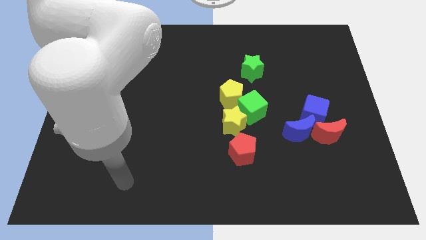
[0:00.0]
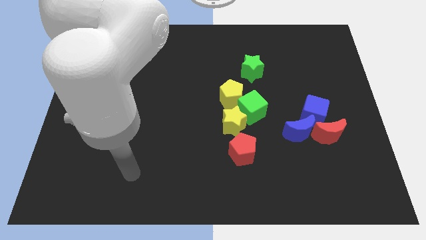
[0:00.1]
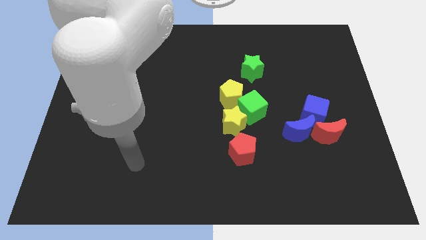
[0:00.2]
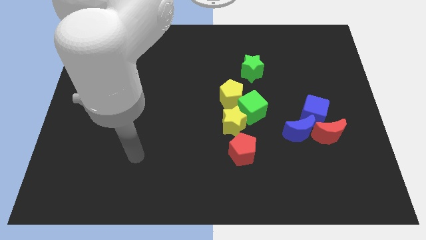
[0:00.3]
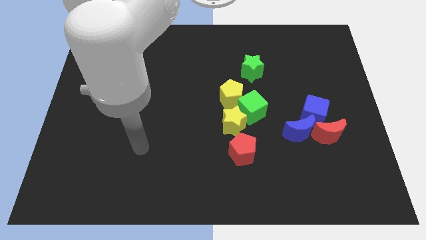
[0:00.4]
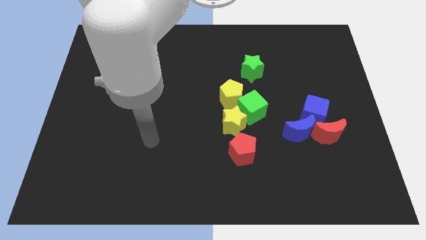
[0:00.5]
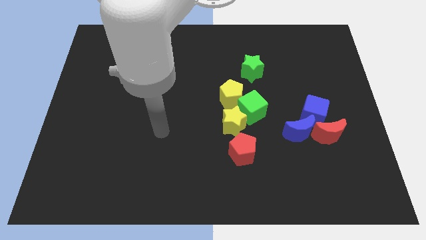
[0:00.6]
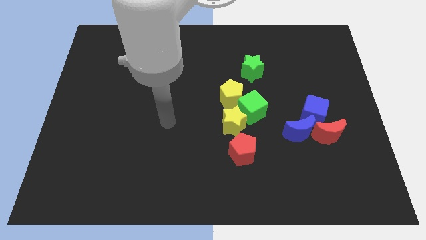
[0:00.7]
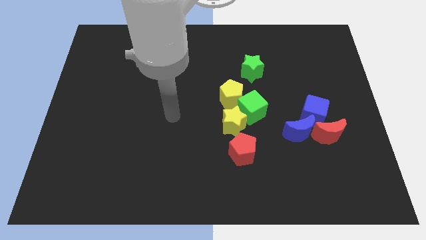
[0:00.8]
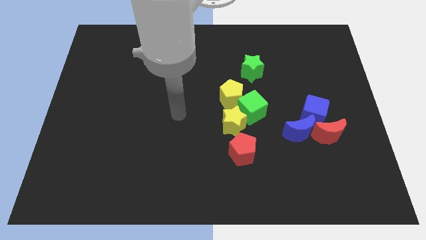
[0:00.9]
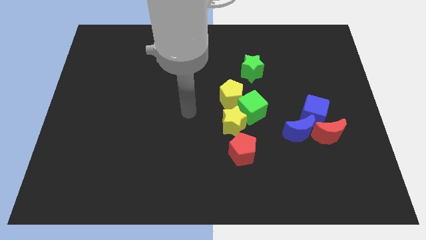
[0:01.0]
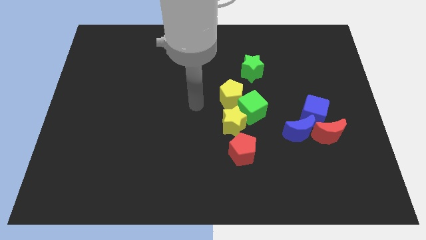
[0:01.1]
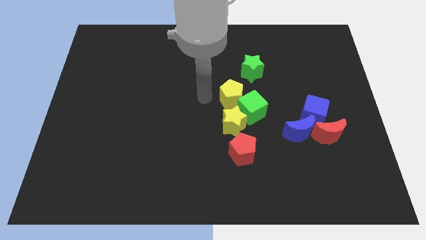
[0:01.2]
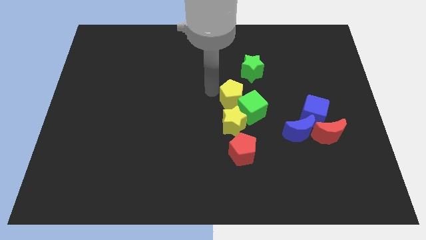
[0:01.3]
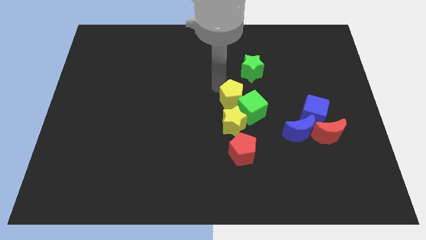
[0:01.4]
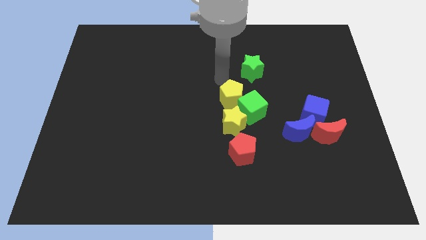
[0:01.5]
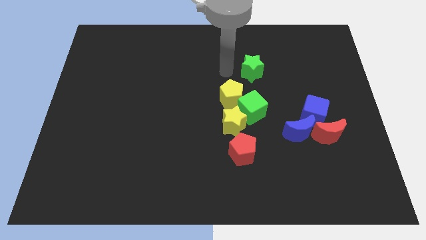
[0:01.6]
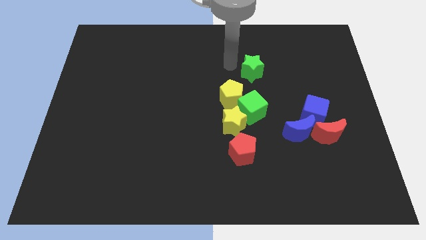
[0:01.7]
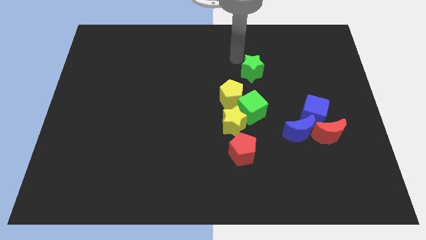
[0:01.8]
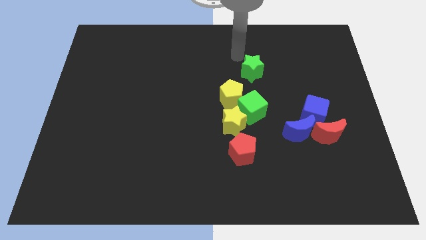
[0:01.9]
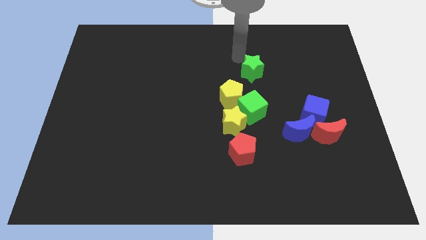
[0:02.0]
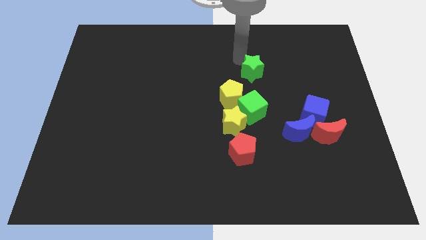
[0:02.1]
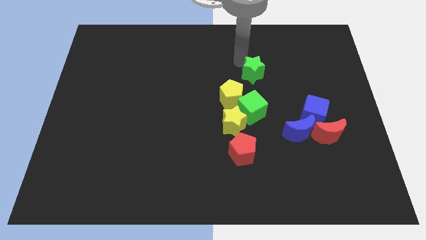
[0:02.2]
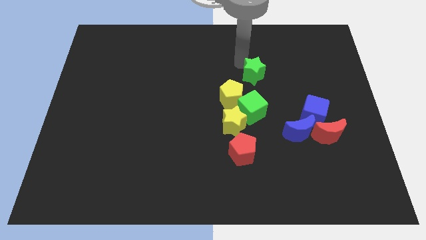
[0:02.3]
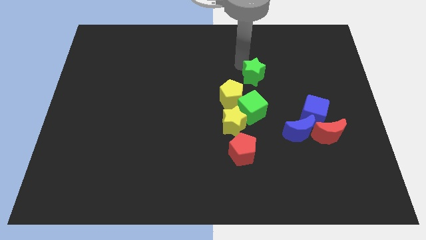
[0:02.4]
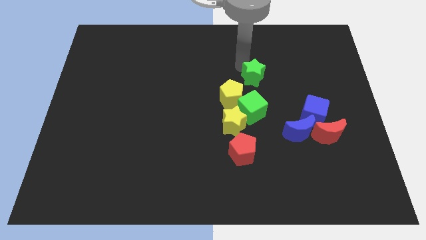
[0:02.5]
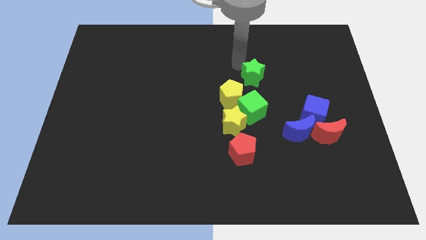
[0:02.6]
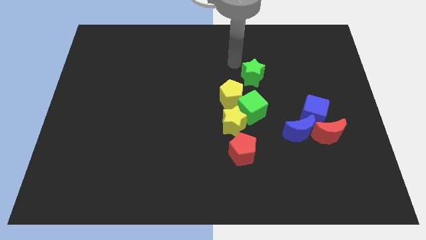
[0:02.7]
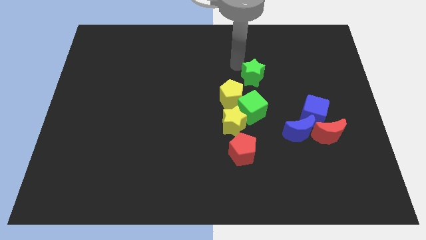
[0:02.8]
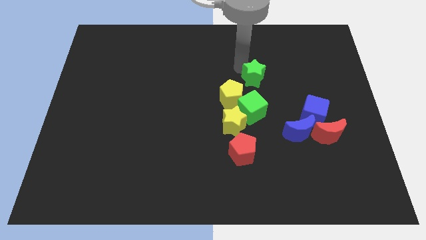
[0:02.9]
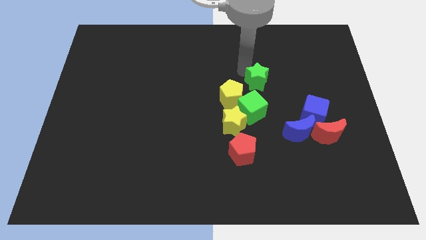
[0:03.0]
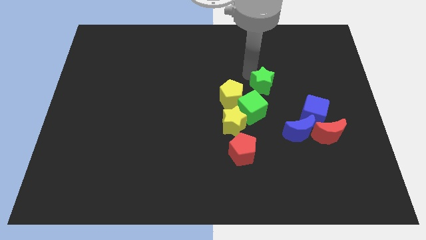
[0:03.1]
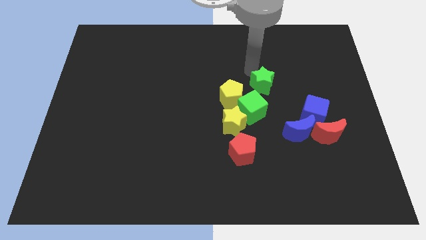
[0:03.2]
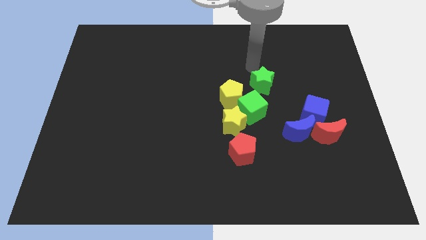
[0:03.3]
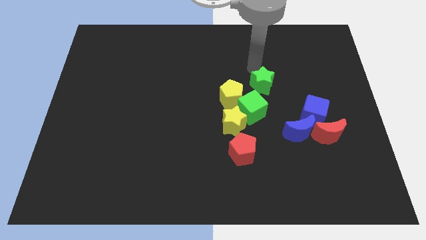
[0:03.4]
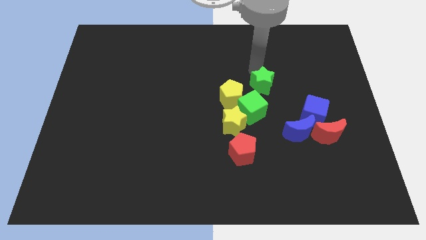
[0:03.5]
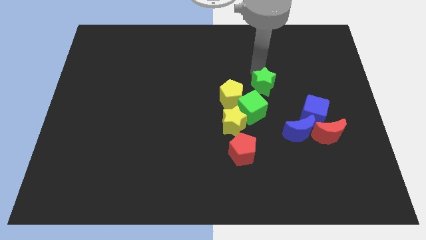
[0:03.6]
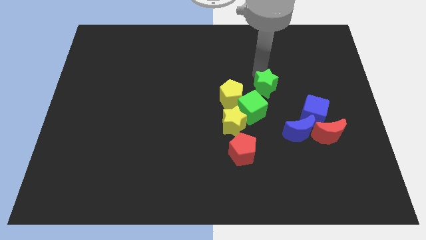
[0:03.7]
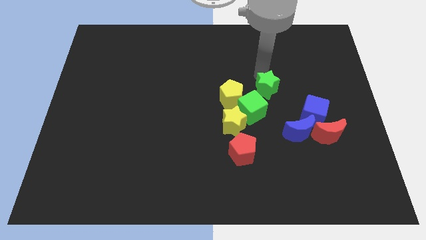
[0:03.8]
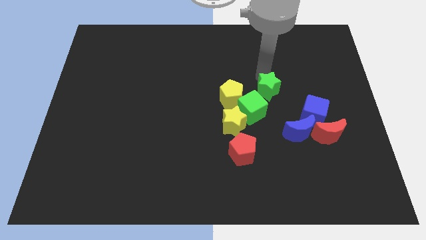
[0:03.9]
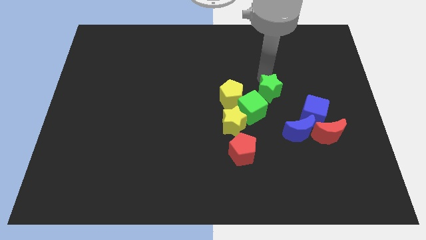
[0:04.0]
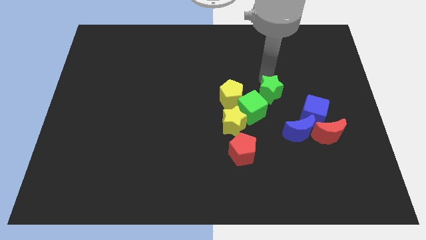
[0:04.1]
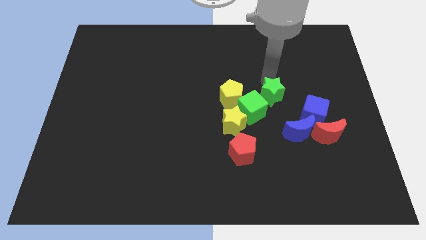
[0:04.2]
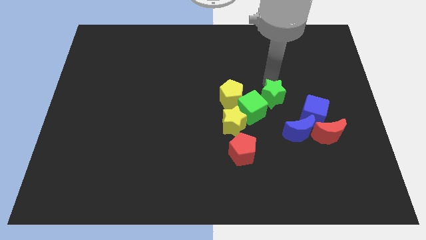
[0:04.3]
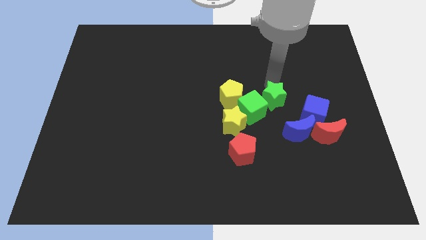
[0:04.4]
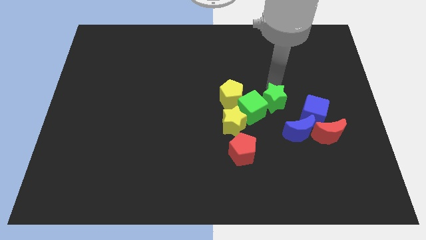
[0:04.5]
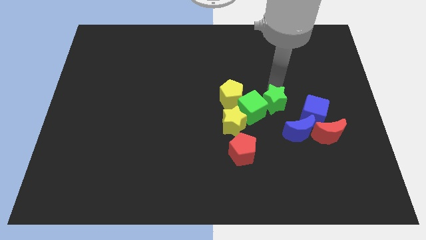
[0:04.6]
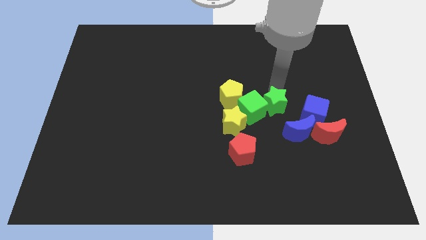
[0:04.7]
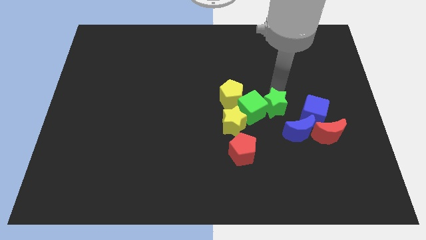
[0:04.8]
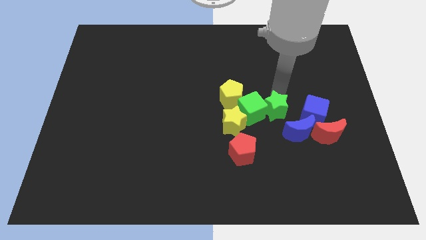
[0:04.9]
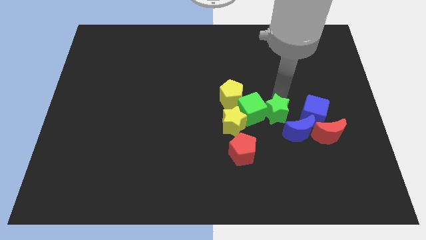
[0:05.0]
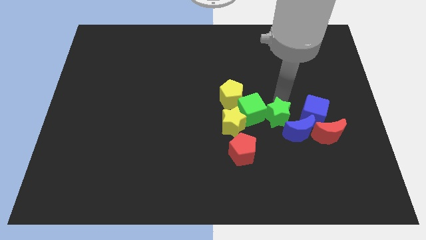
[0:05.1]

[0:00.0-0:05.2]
move the green star just left of the blue moon

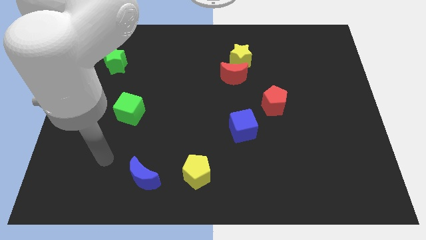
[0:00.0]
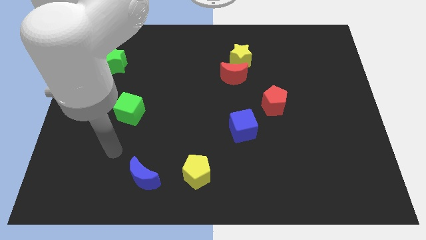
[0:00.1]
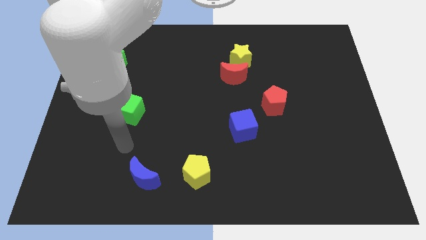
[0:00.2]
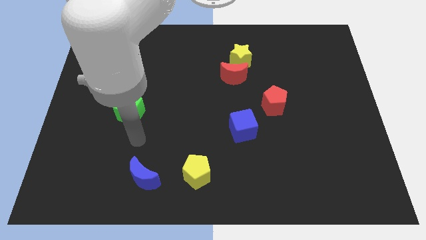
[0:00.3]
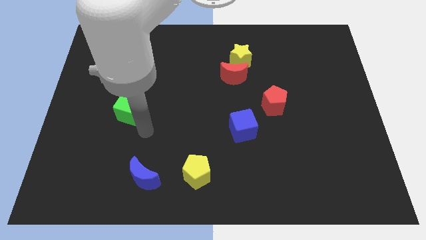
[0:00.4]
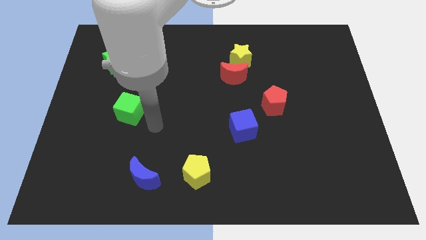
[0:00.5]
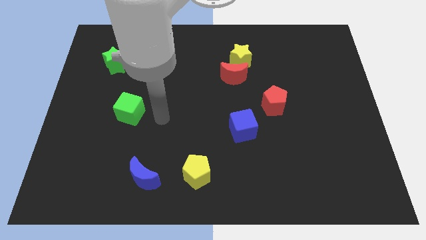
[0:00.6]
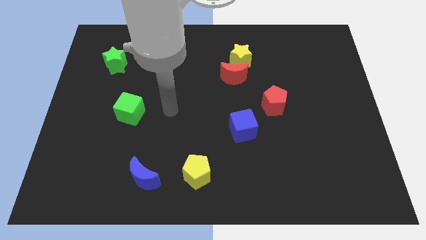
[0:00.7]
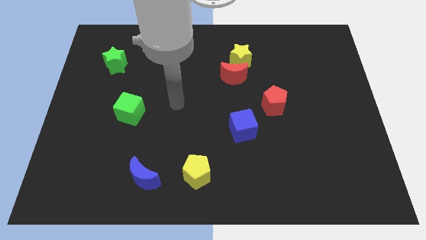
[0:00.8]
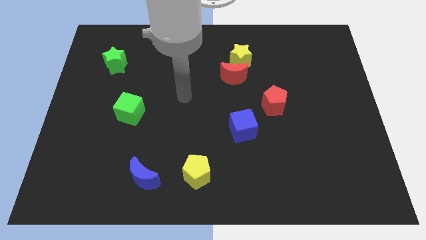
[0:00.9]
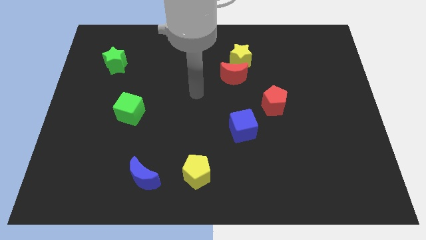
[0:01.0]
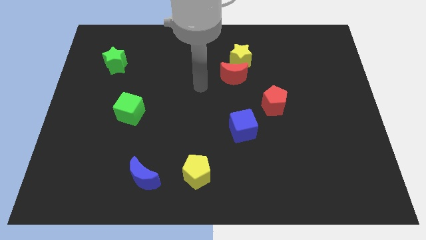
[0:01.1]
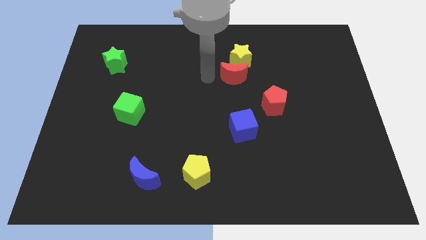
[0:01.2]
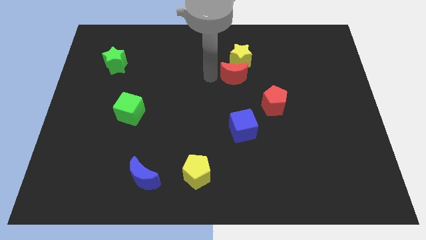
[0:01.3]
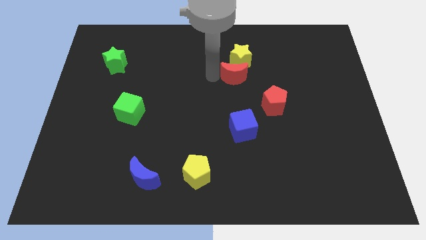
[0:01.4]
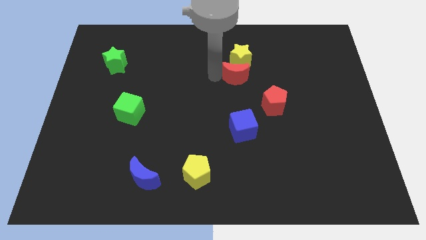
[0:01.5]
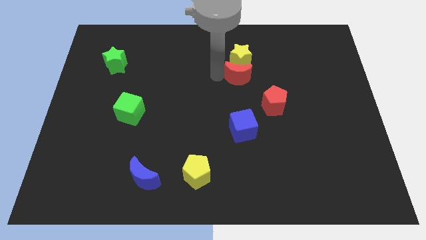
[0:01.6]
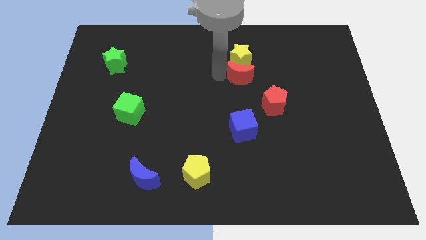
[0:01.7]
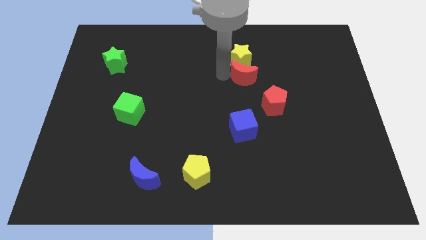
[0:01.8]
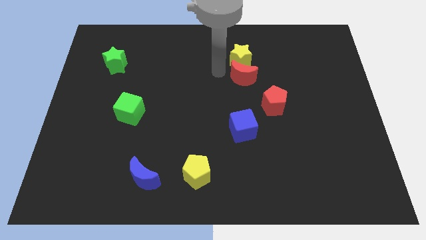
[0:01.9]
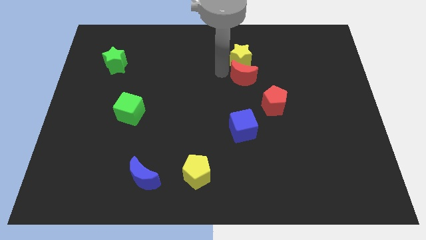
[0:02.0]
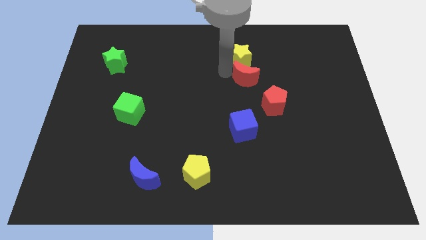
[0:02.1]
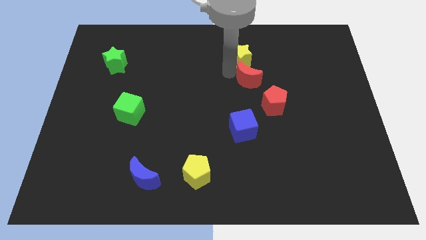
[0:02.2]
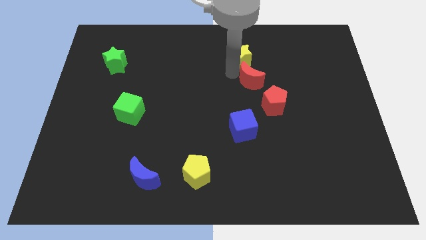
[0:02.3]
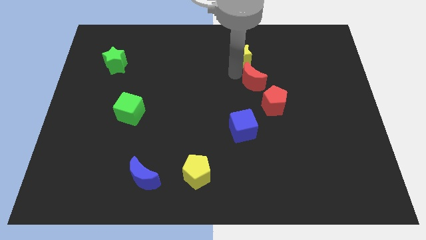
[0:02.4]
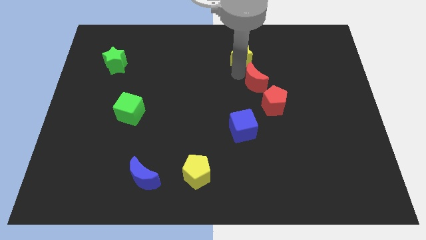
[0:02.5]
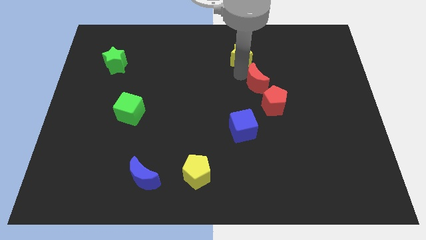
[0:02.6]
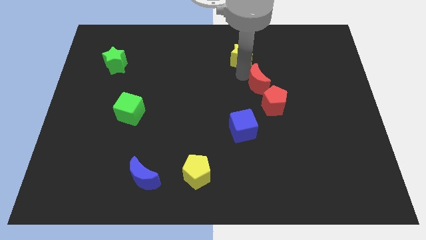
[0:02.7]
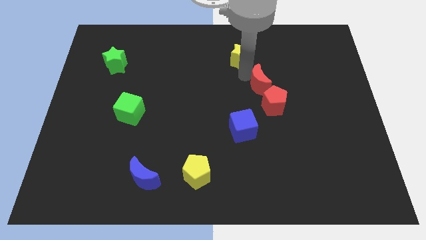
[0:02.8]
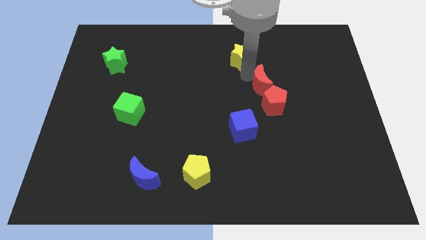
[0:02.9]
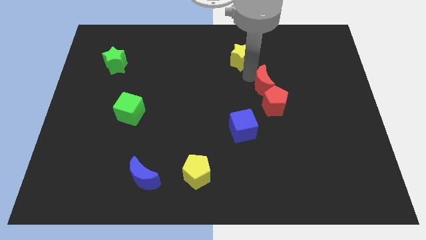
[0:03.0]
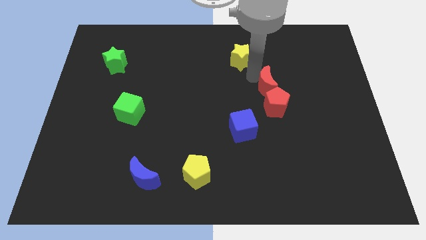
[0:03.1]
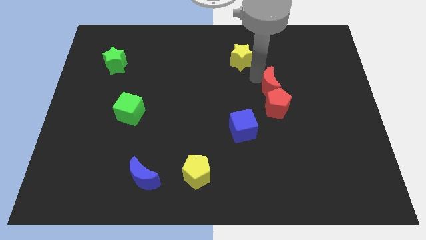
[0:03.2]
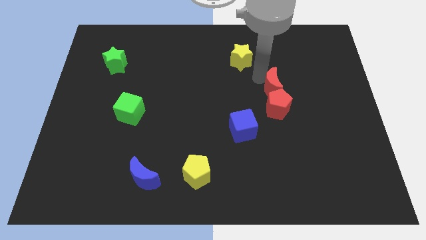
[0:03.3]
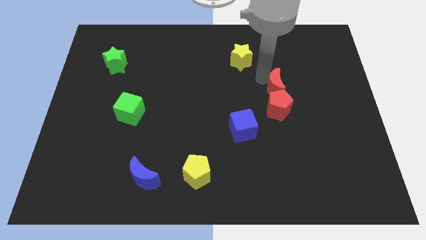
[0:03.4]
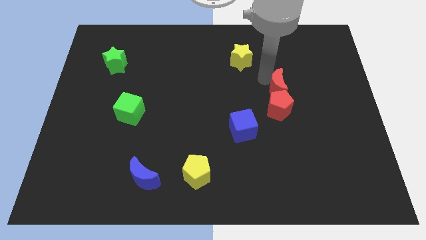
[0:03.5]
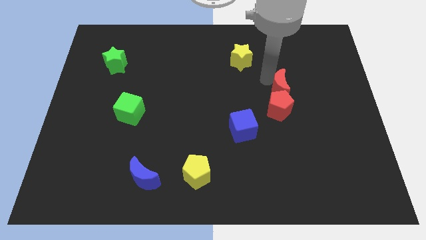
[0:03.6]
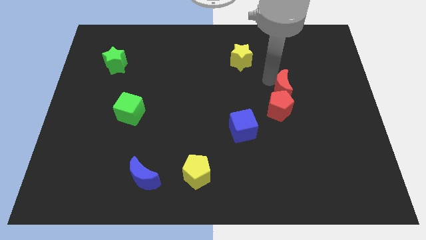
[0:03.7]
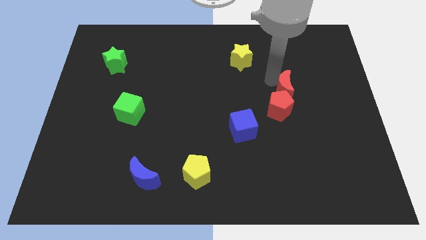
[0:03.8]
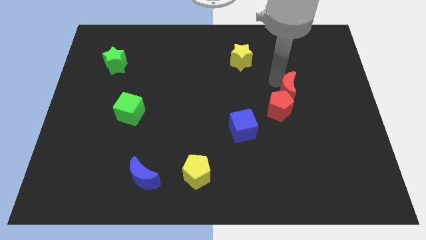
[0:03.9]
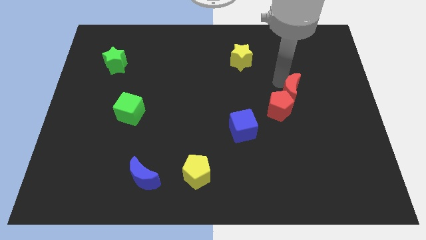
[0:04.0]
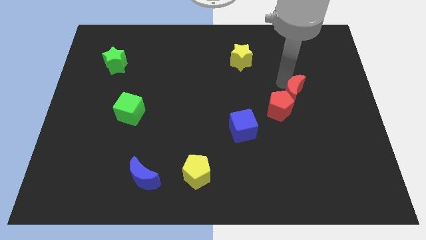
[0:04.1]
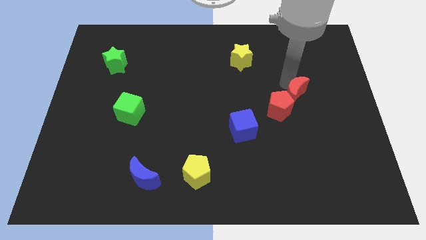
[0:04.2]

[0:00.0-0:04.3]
put the red moon just right of the red pentagon
